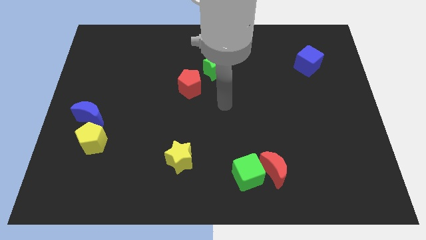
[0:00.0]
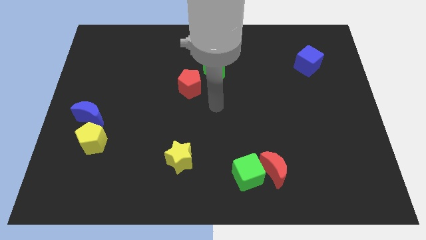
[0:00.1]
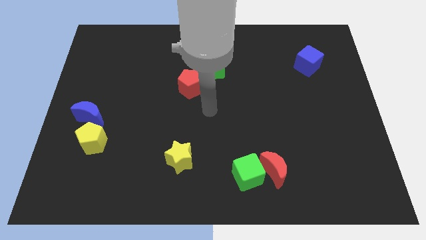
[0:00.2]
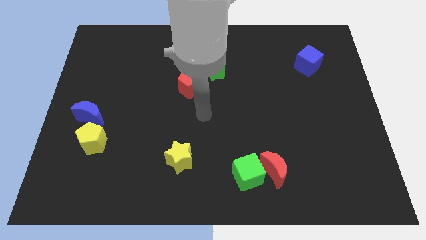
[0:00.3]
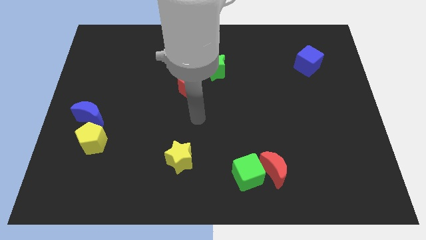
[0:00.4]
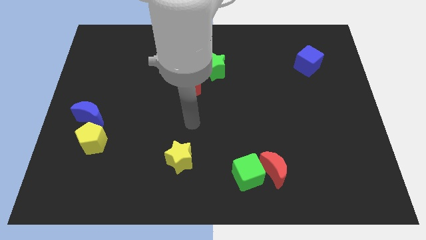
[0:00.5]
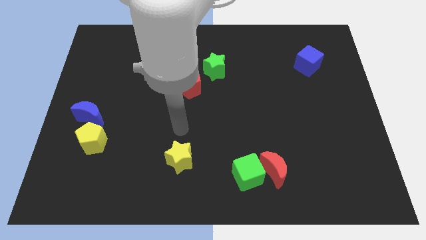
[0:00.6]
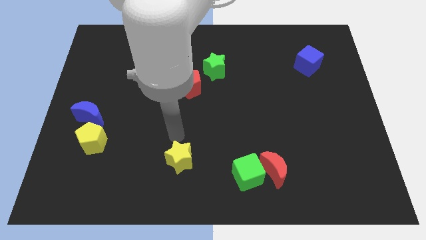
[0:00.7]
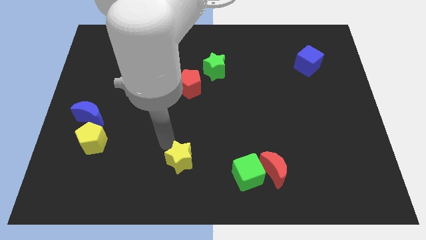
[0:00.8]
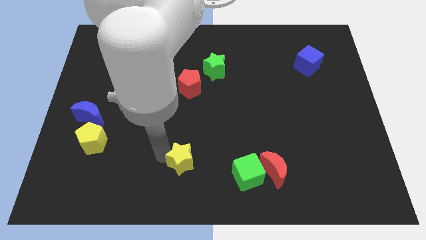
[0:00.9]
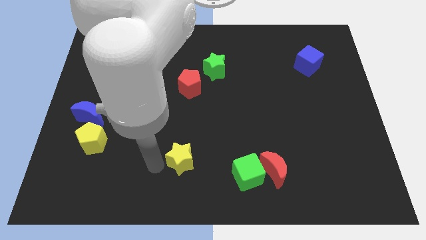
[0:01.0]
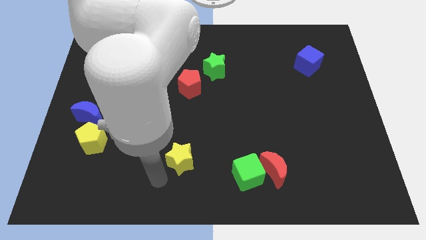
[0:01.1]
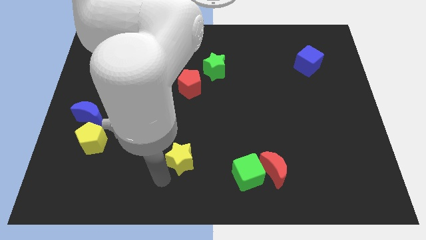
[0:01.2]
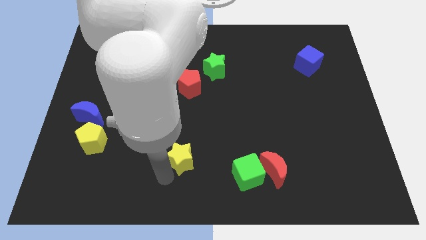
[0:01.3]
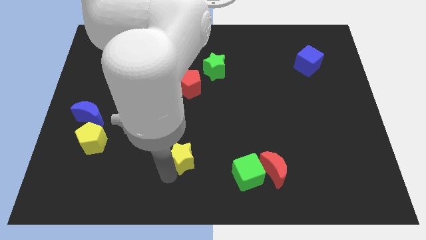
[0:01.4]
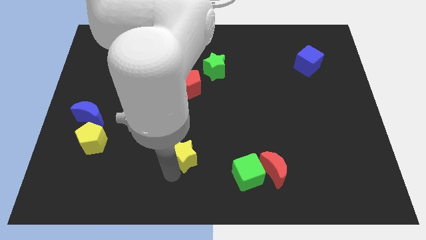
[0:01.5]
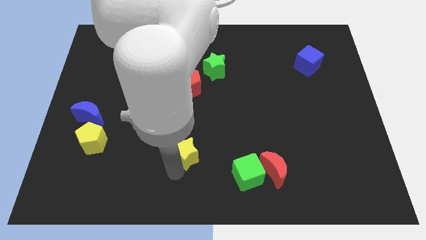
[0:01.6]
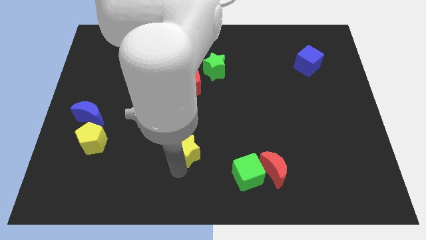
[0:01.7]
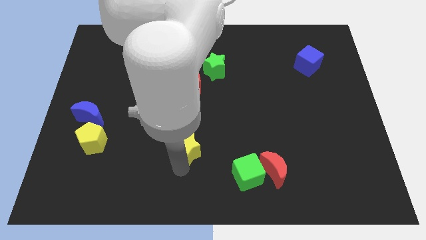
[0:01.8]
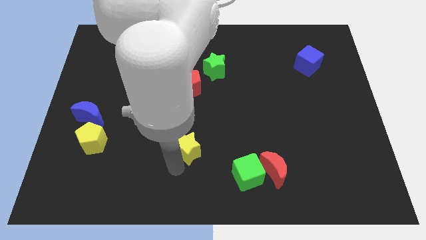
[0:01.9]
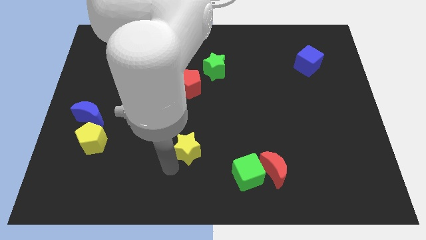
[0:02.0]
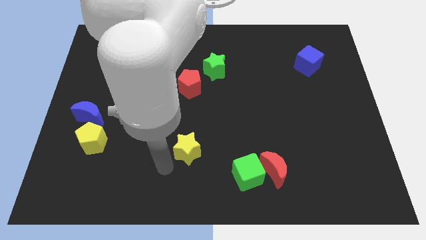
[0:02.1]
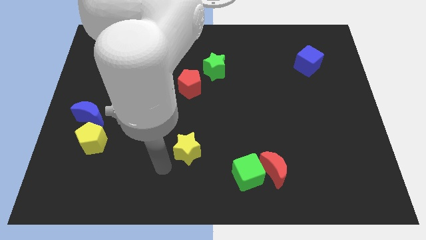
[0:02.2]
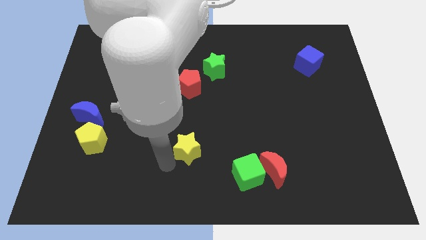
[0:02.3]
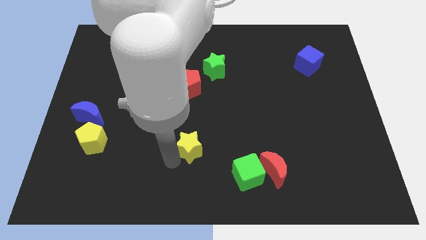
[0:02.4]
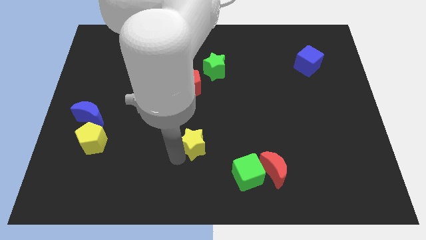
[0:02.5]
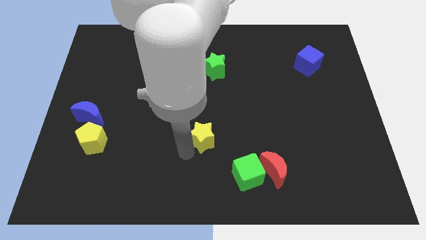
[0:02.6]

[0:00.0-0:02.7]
slide the yellow star a bit diagonally up and to the right

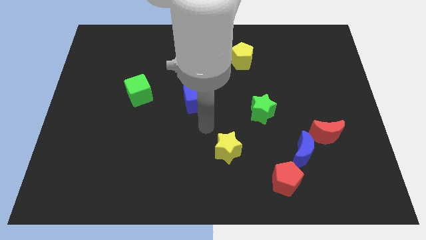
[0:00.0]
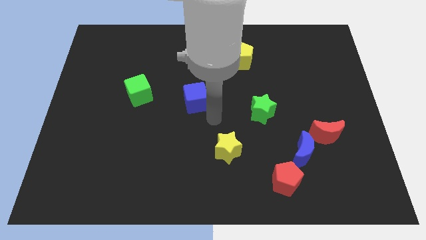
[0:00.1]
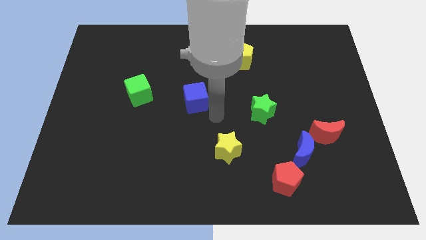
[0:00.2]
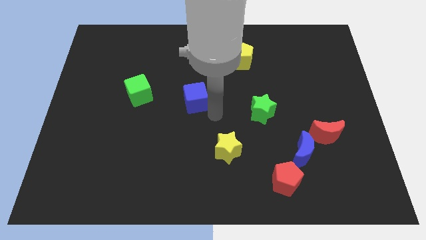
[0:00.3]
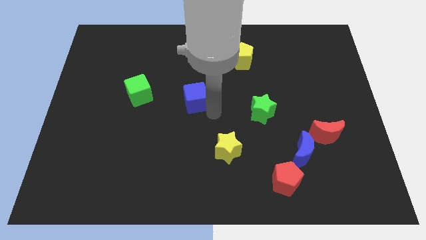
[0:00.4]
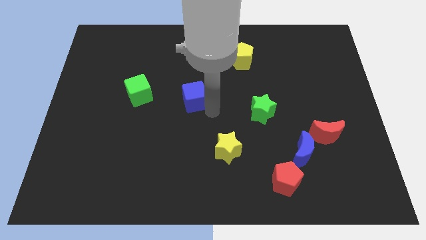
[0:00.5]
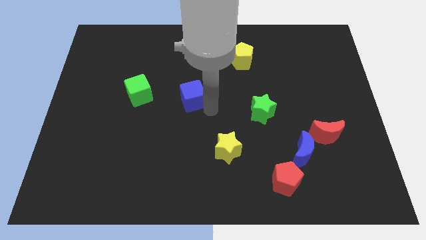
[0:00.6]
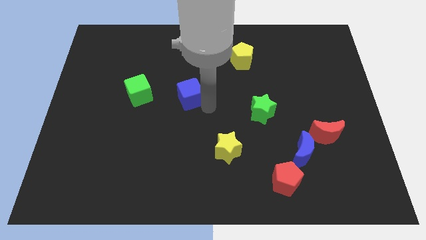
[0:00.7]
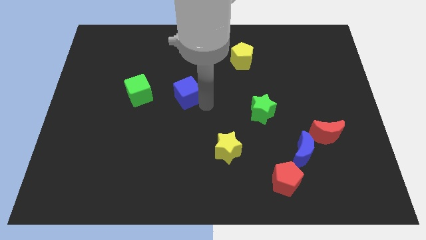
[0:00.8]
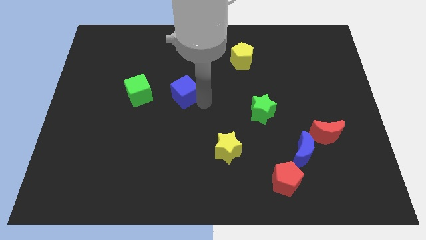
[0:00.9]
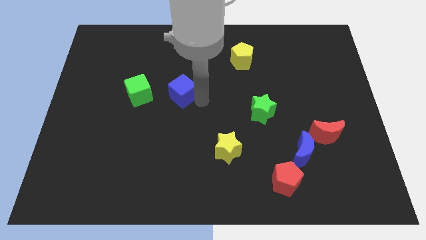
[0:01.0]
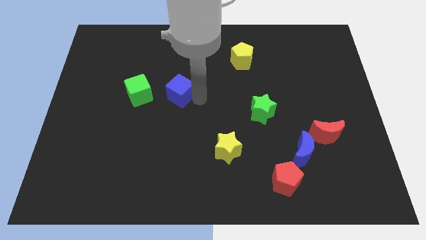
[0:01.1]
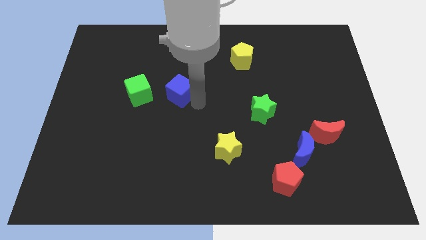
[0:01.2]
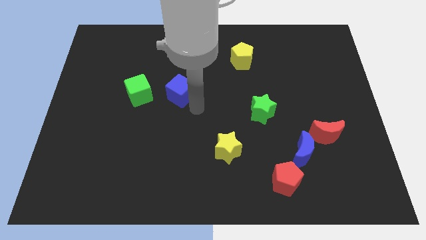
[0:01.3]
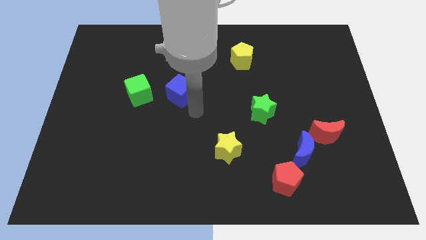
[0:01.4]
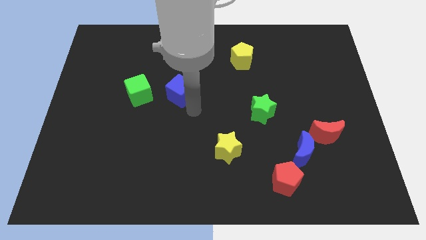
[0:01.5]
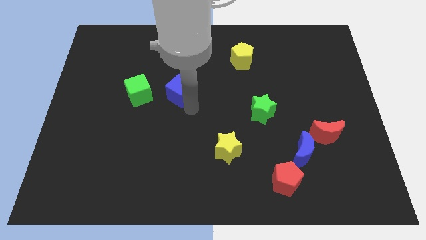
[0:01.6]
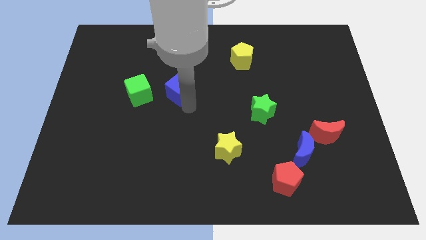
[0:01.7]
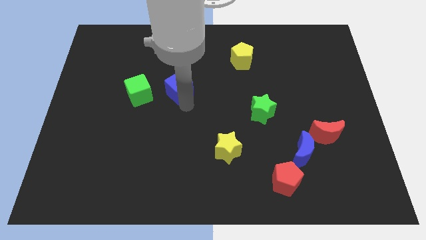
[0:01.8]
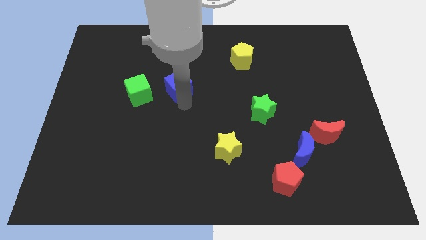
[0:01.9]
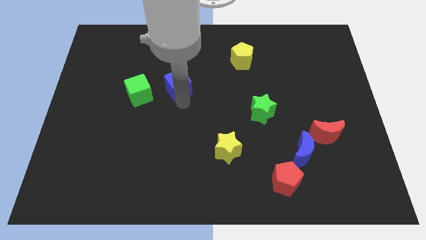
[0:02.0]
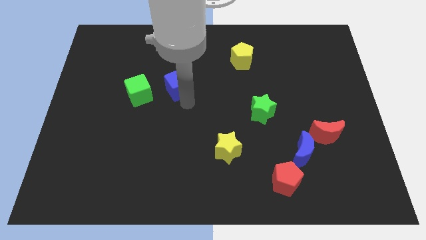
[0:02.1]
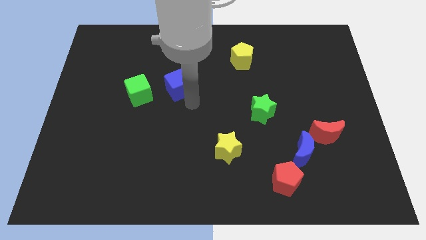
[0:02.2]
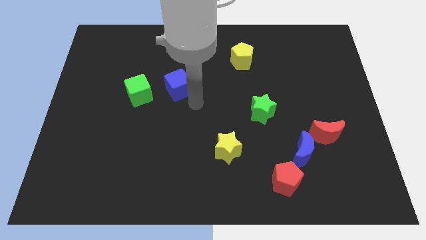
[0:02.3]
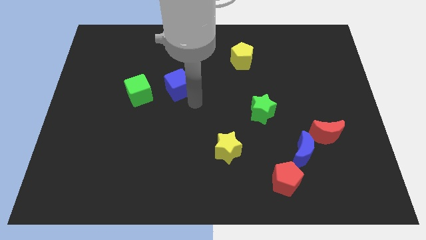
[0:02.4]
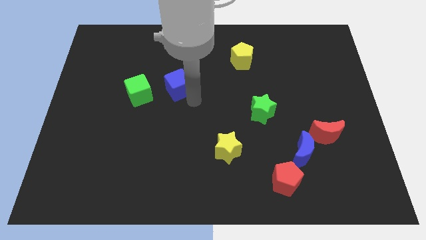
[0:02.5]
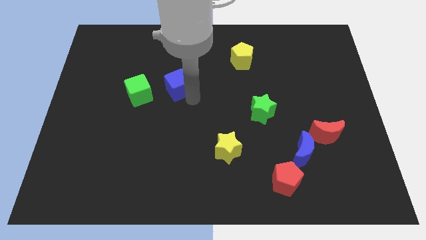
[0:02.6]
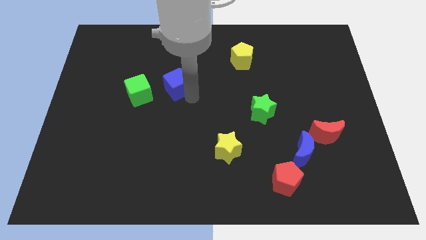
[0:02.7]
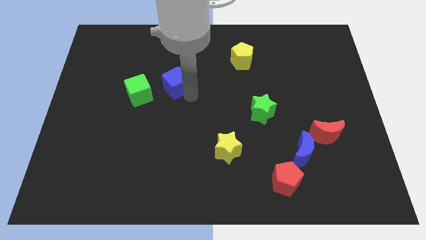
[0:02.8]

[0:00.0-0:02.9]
slightly move the blue cube up and to the left diagonally

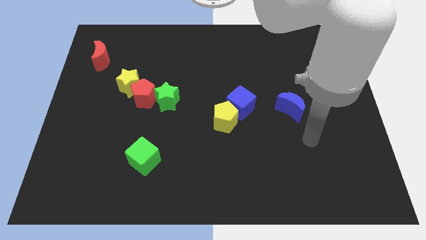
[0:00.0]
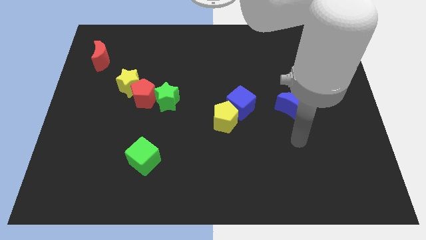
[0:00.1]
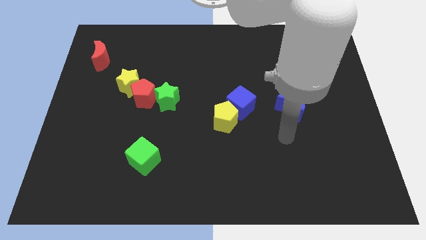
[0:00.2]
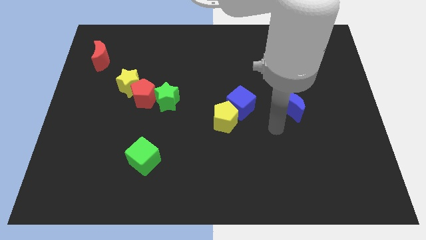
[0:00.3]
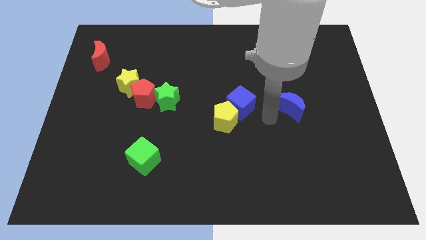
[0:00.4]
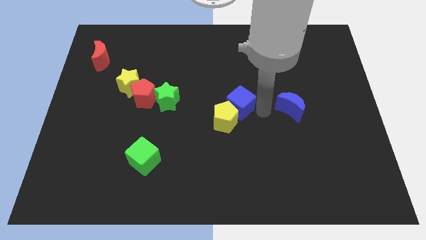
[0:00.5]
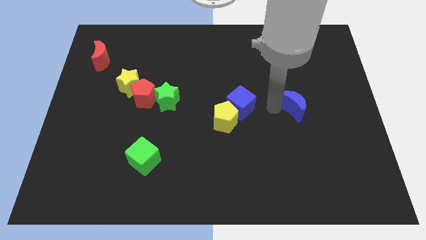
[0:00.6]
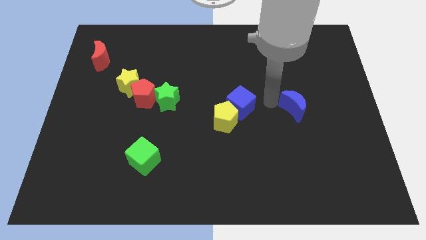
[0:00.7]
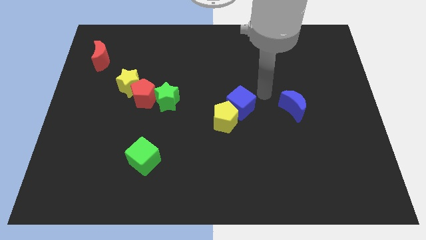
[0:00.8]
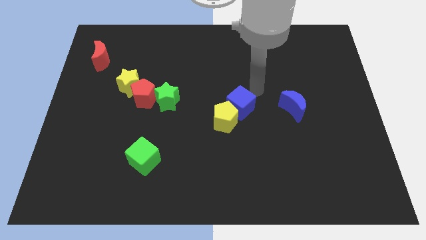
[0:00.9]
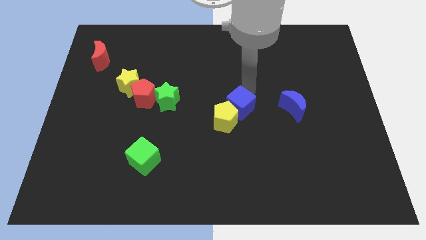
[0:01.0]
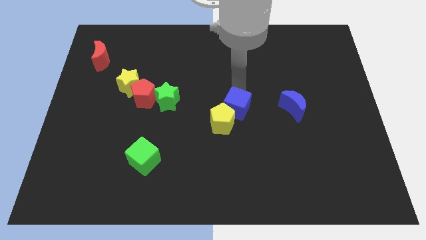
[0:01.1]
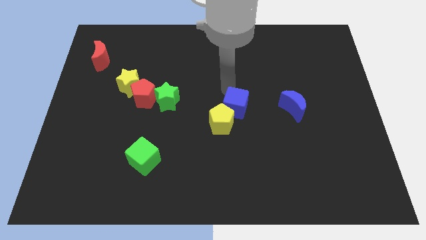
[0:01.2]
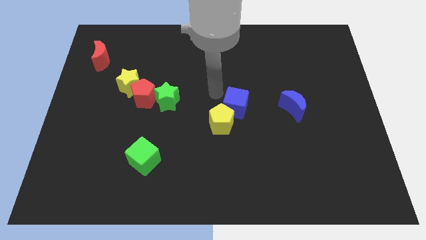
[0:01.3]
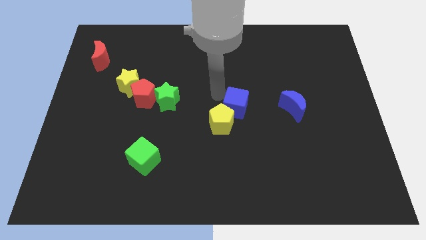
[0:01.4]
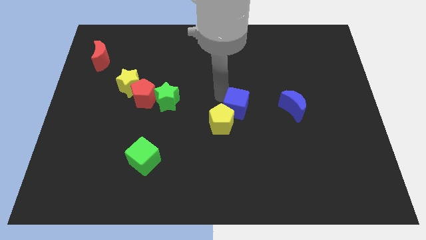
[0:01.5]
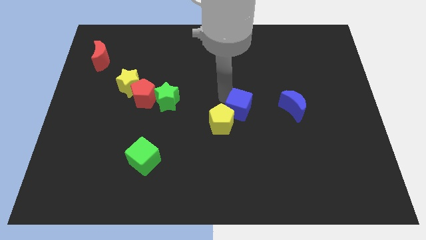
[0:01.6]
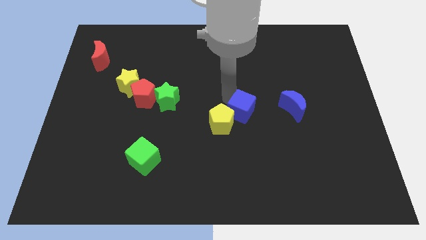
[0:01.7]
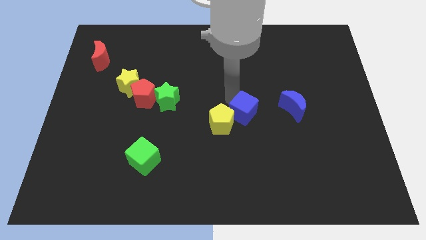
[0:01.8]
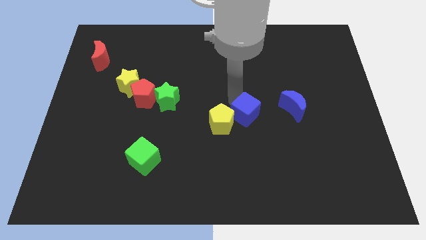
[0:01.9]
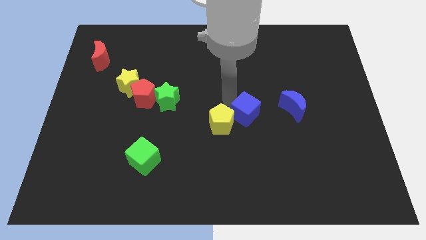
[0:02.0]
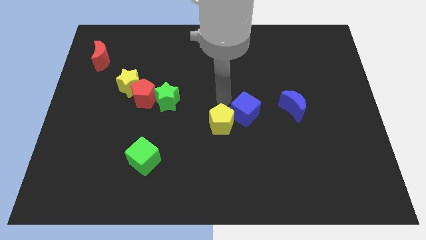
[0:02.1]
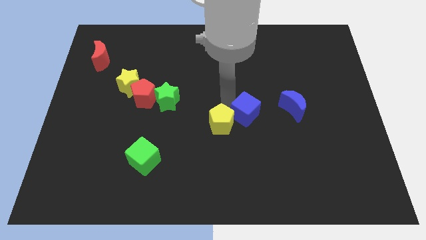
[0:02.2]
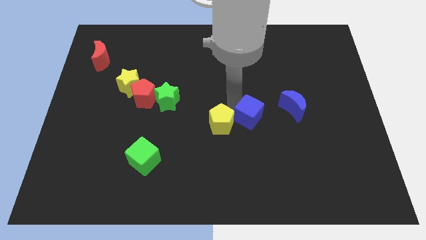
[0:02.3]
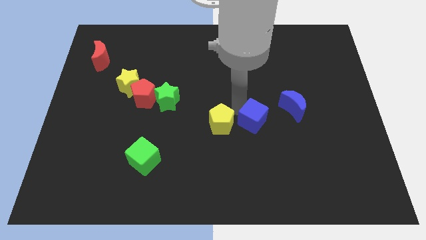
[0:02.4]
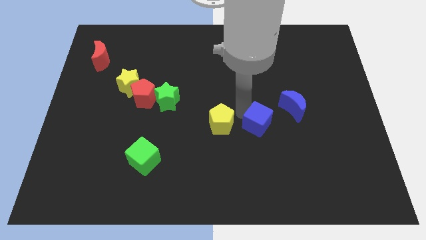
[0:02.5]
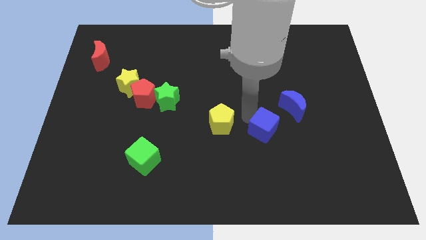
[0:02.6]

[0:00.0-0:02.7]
move the blue cube somewhat down and then right
